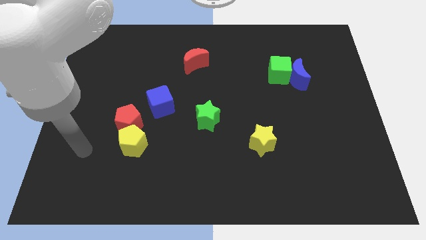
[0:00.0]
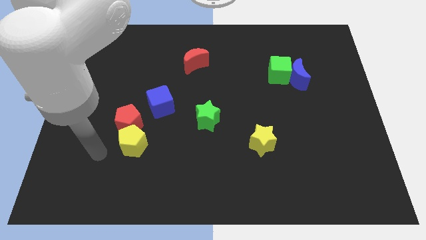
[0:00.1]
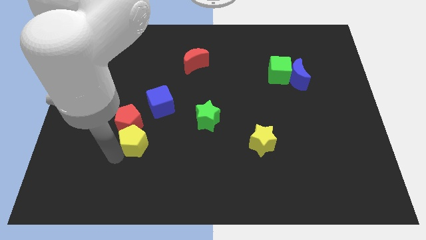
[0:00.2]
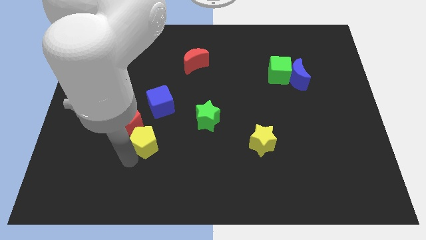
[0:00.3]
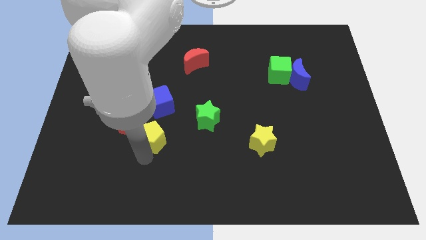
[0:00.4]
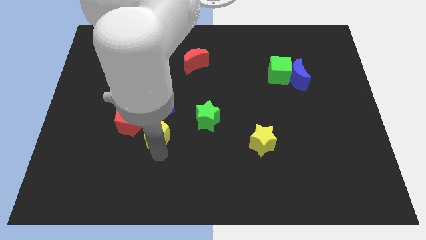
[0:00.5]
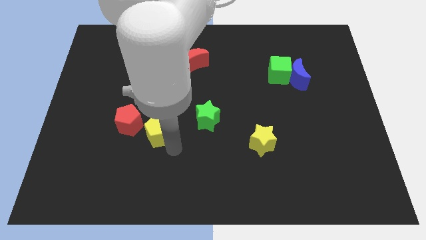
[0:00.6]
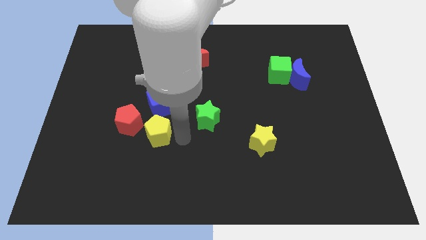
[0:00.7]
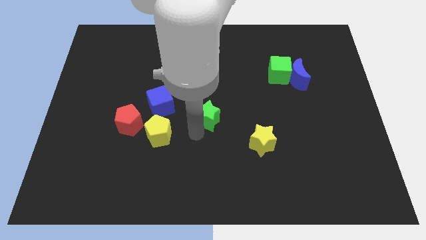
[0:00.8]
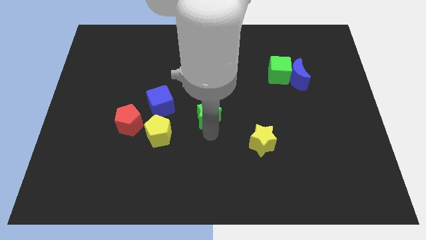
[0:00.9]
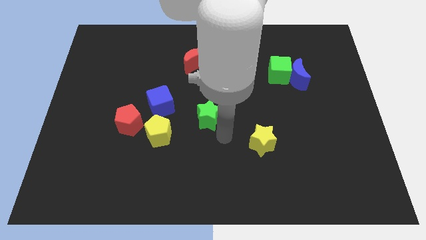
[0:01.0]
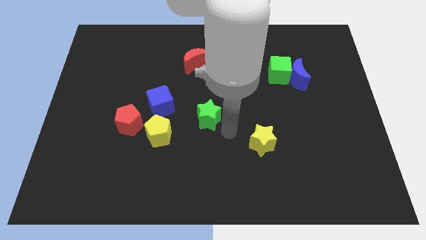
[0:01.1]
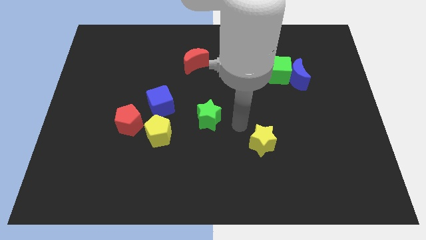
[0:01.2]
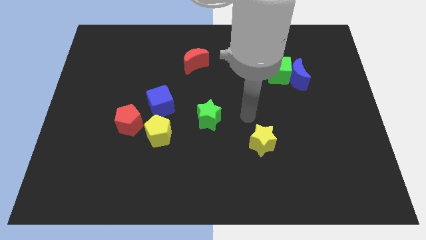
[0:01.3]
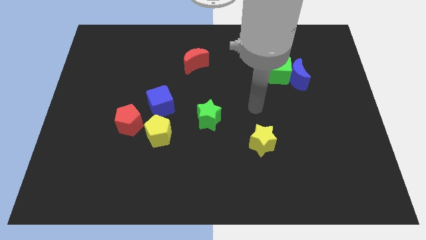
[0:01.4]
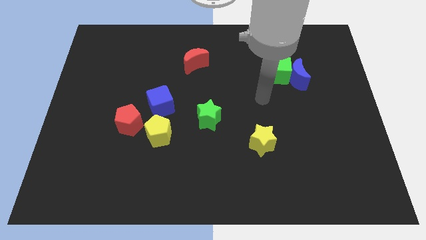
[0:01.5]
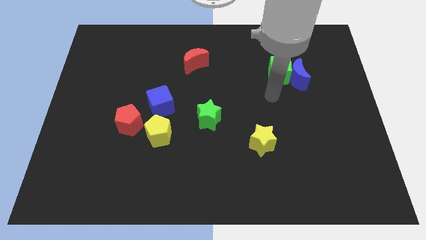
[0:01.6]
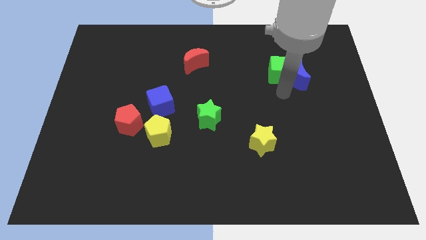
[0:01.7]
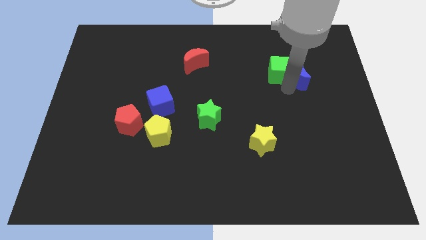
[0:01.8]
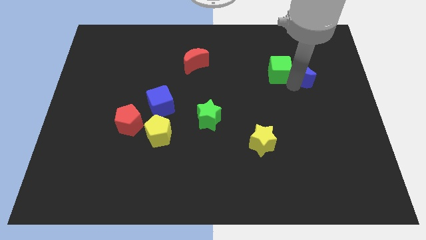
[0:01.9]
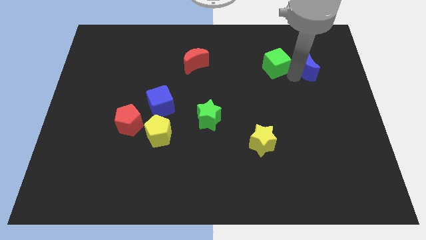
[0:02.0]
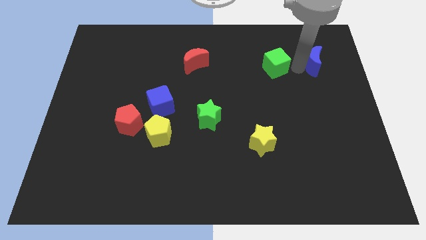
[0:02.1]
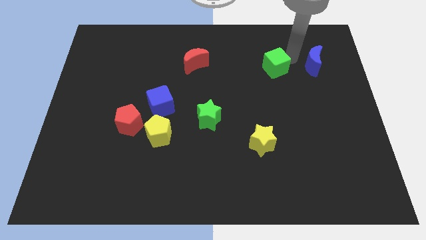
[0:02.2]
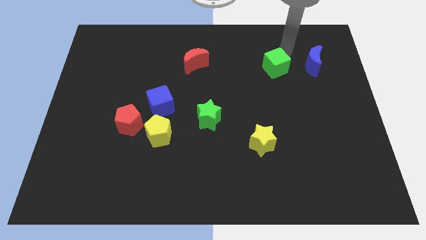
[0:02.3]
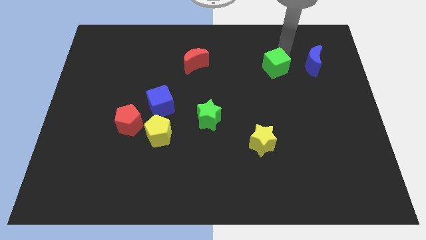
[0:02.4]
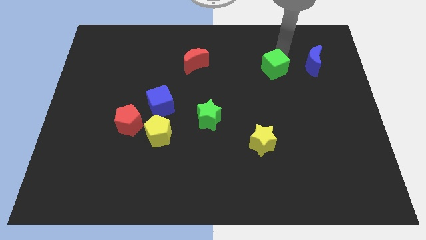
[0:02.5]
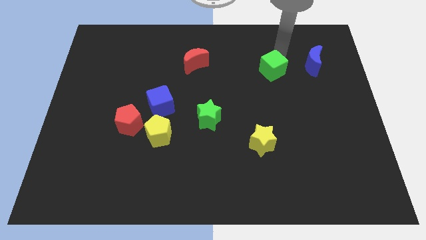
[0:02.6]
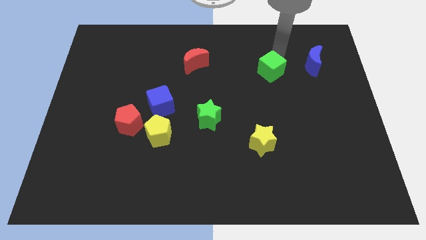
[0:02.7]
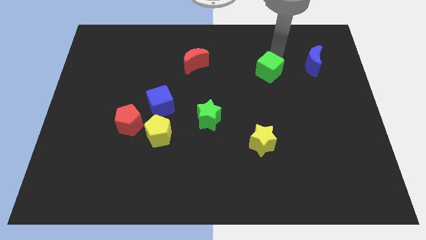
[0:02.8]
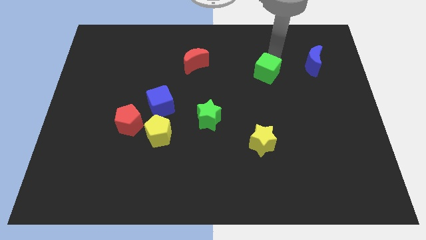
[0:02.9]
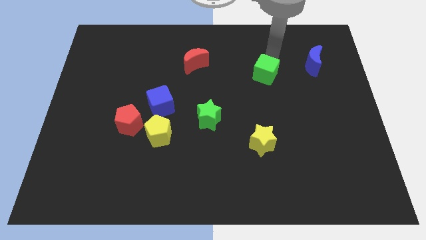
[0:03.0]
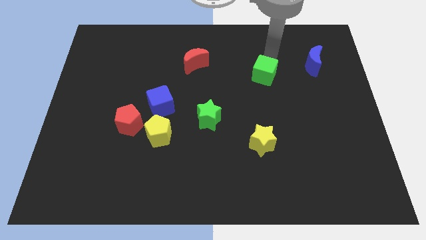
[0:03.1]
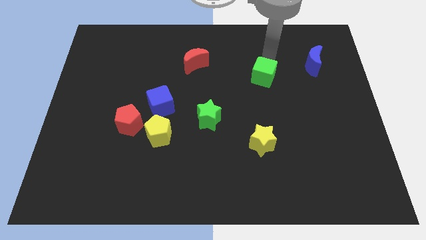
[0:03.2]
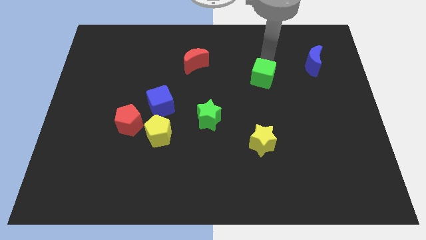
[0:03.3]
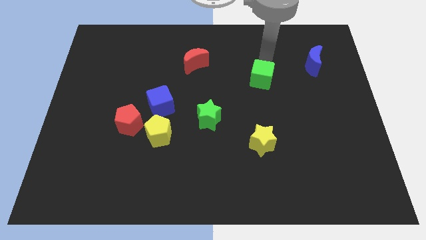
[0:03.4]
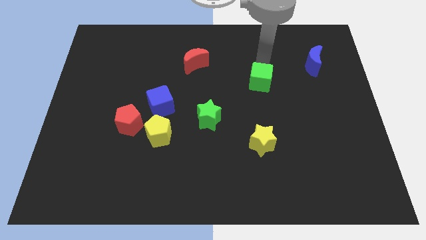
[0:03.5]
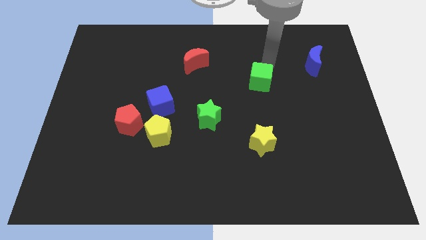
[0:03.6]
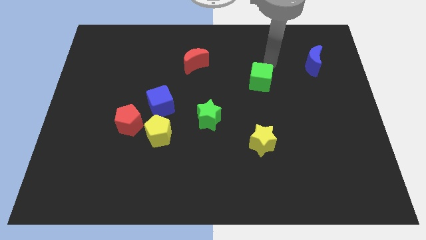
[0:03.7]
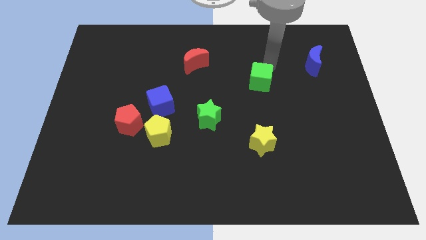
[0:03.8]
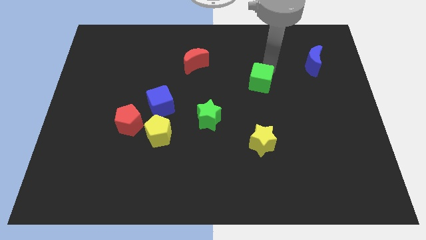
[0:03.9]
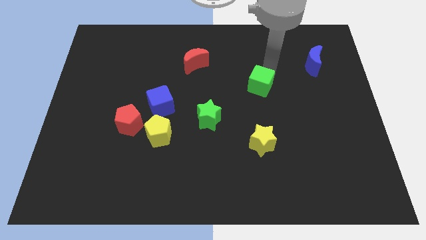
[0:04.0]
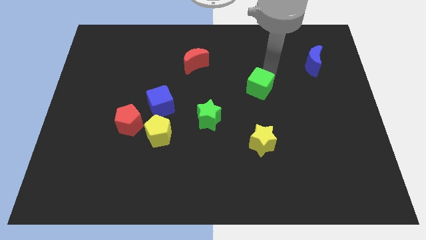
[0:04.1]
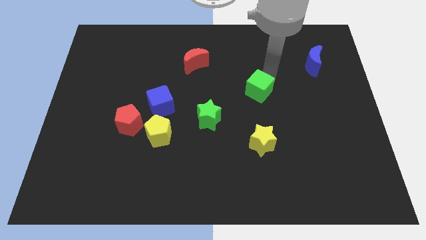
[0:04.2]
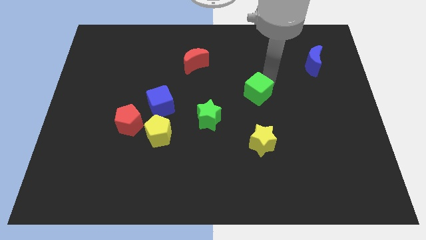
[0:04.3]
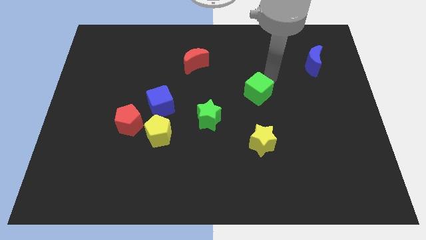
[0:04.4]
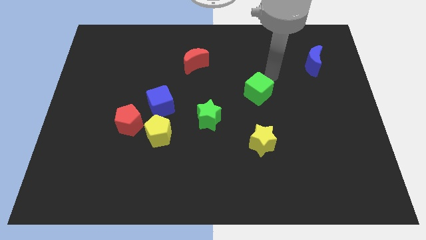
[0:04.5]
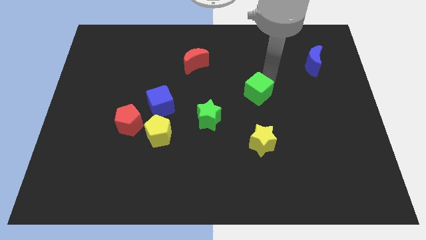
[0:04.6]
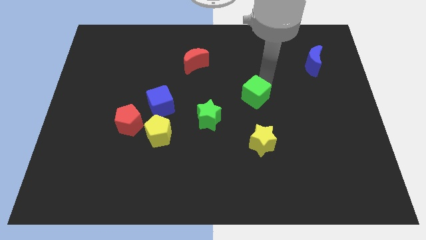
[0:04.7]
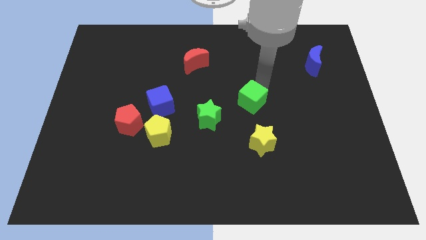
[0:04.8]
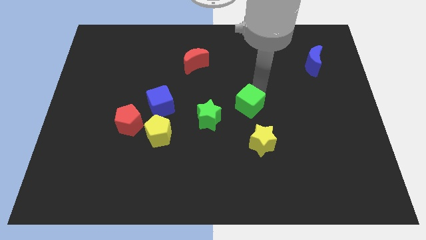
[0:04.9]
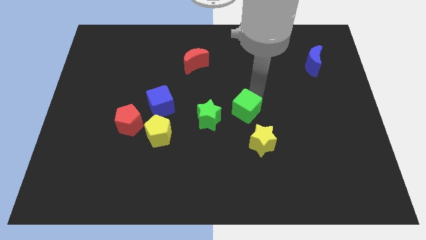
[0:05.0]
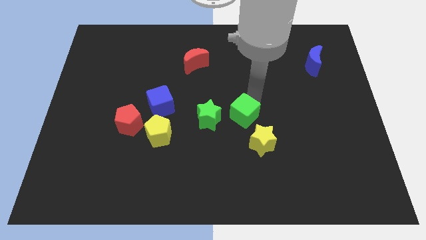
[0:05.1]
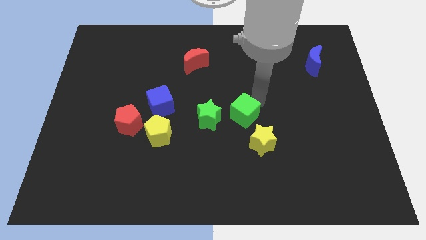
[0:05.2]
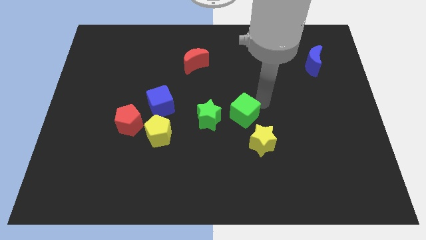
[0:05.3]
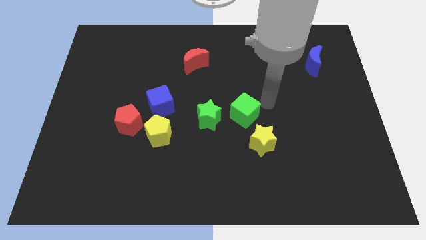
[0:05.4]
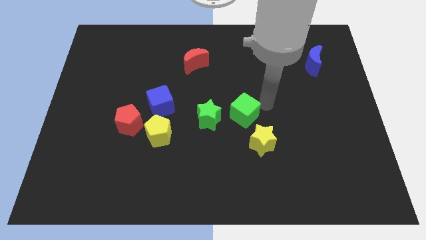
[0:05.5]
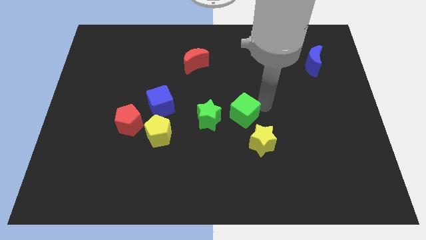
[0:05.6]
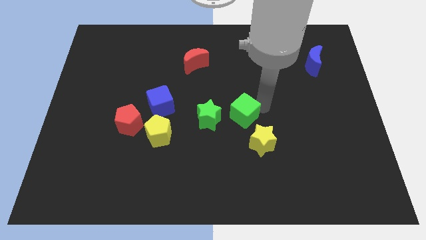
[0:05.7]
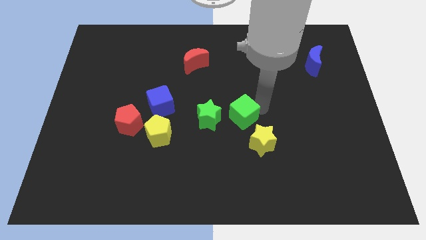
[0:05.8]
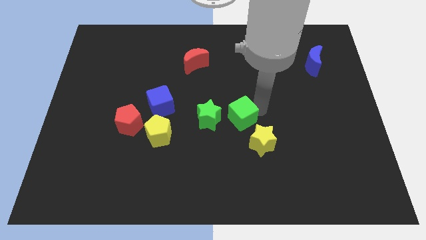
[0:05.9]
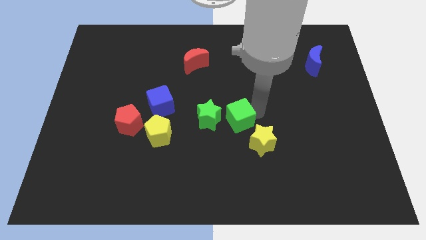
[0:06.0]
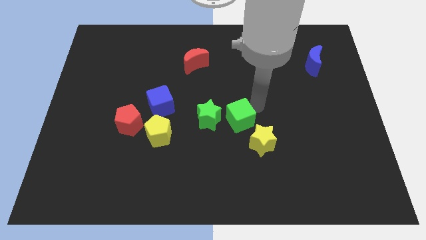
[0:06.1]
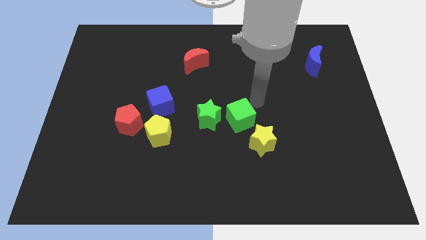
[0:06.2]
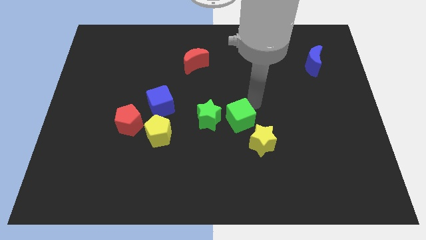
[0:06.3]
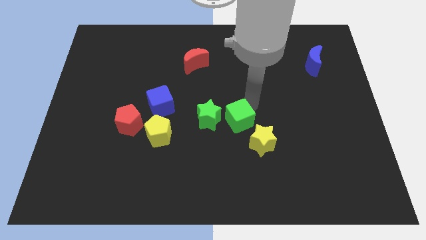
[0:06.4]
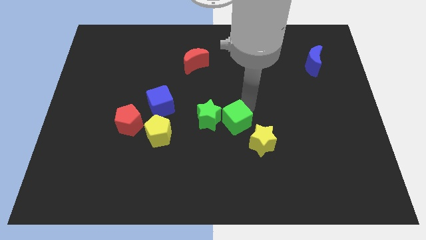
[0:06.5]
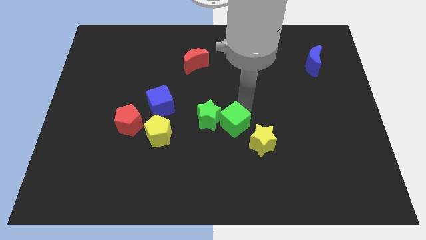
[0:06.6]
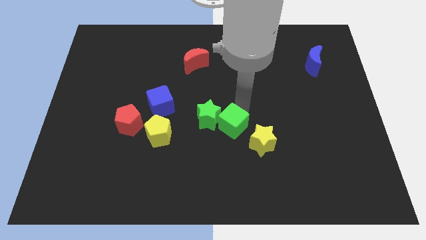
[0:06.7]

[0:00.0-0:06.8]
slide the green cube just left of the yellow star

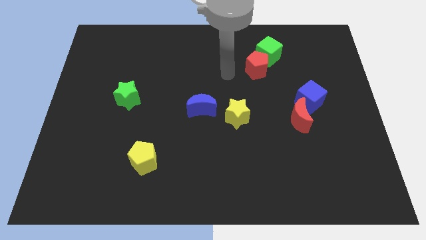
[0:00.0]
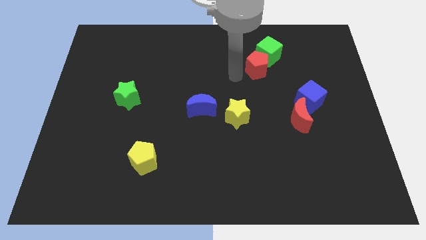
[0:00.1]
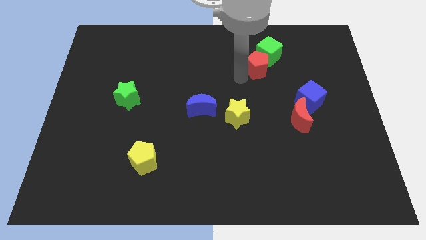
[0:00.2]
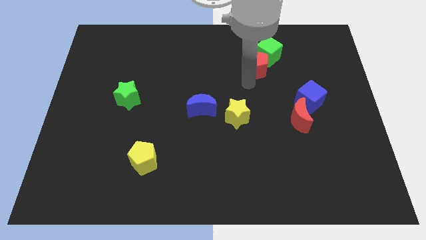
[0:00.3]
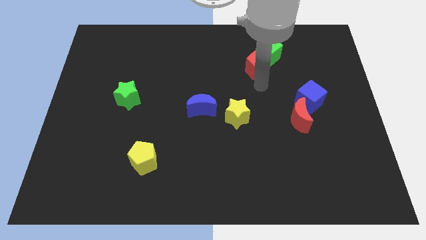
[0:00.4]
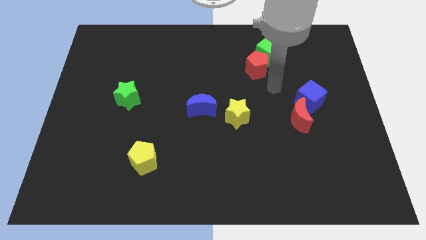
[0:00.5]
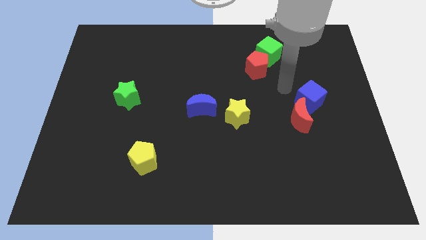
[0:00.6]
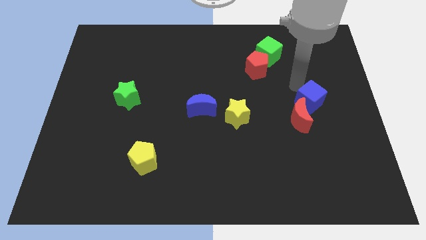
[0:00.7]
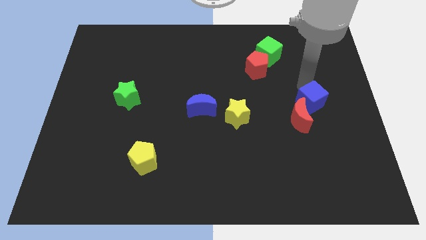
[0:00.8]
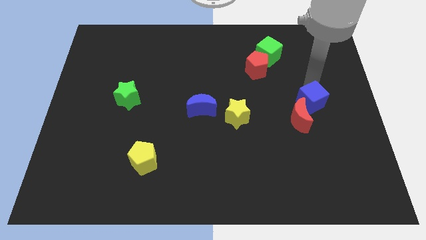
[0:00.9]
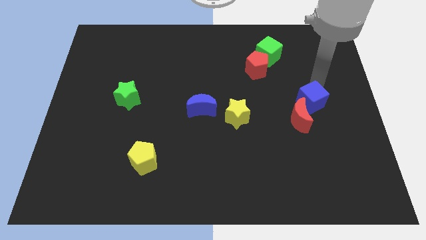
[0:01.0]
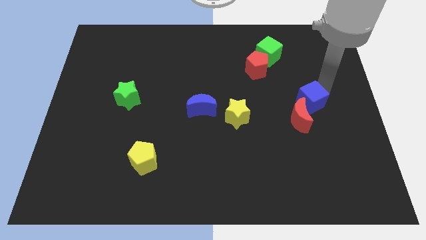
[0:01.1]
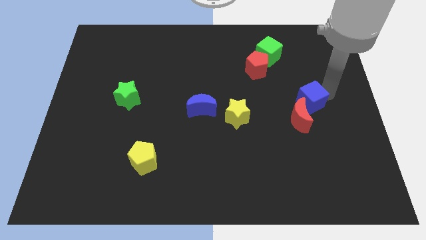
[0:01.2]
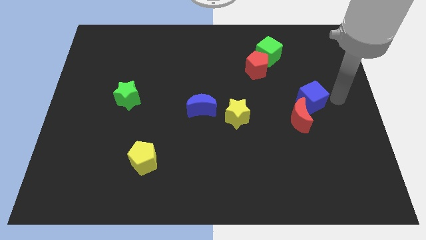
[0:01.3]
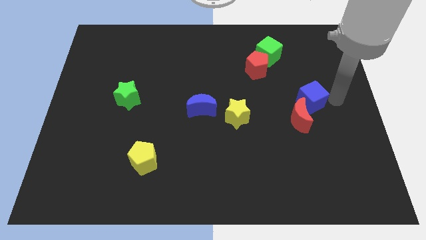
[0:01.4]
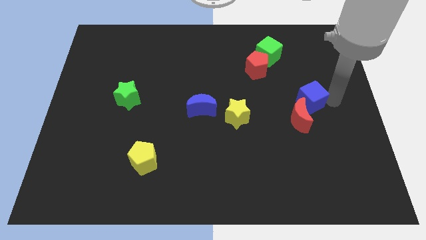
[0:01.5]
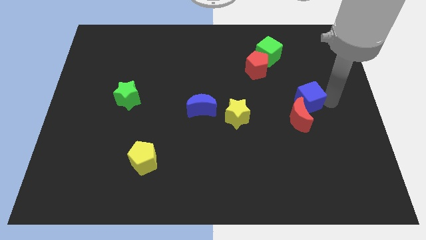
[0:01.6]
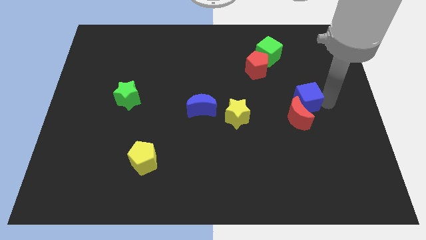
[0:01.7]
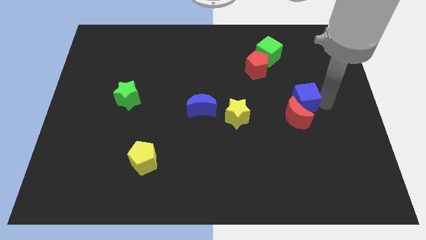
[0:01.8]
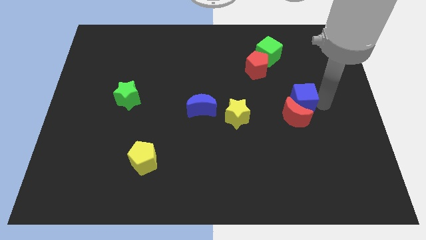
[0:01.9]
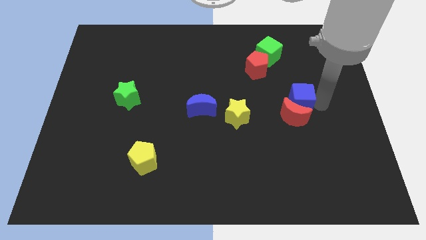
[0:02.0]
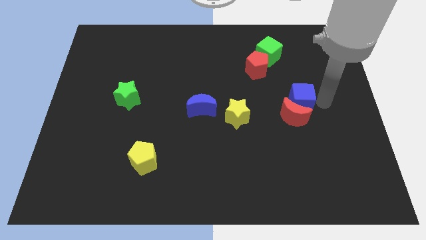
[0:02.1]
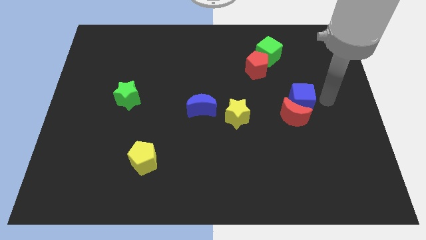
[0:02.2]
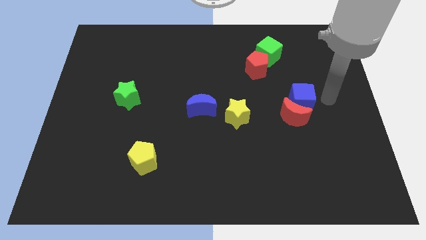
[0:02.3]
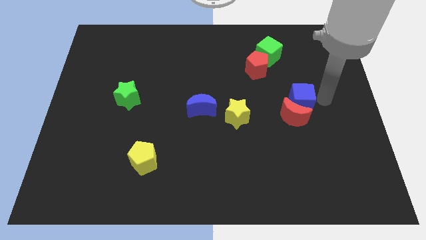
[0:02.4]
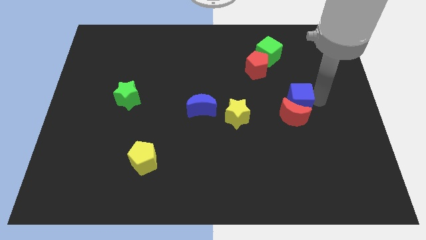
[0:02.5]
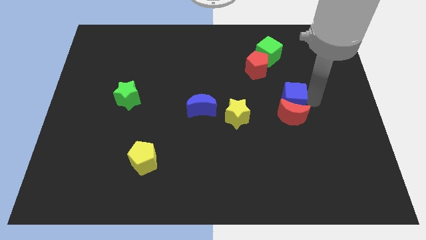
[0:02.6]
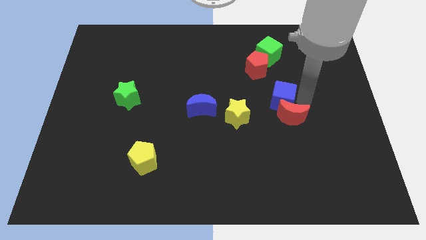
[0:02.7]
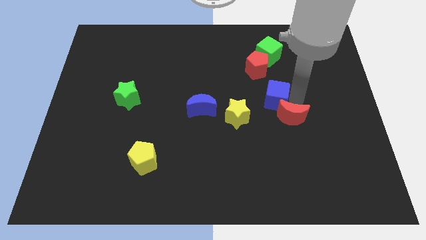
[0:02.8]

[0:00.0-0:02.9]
push the blue cube below the red pentagon
